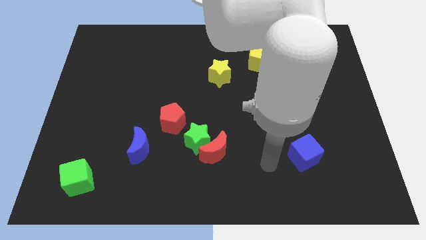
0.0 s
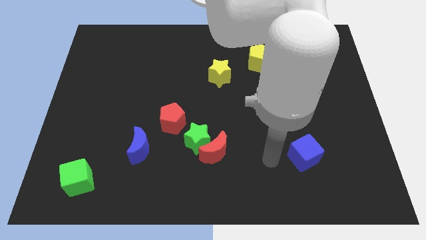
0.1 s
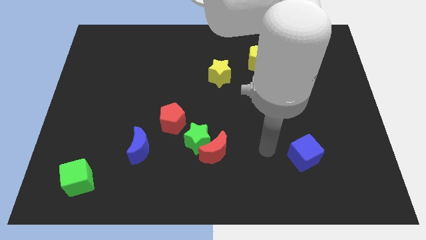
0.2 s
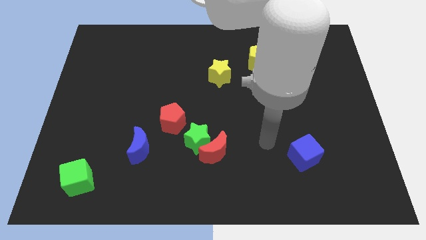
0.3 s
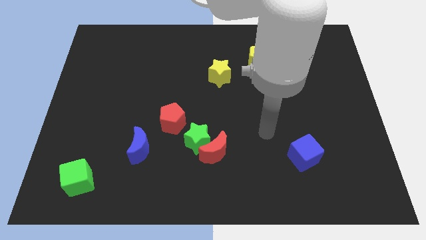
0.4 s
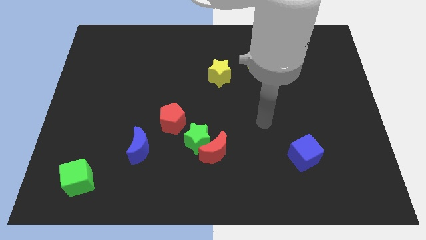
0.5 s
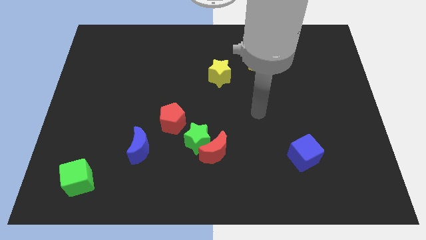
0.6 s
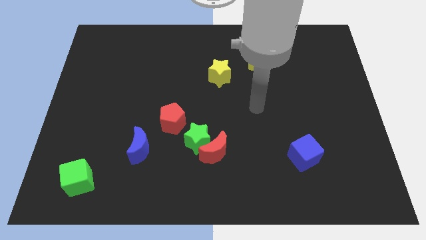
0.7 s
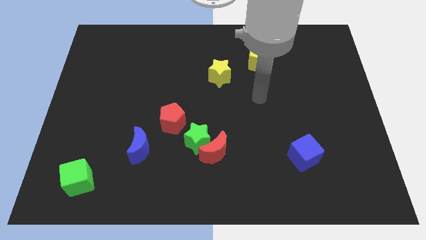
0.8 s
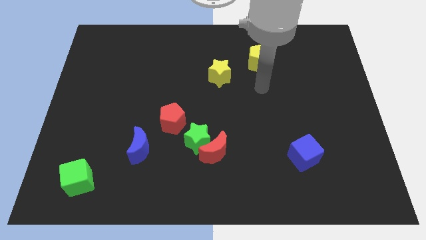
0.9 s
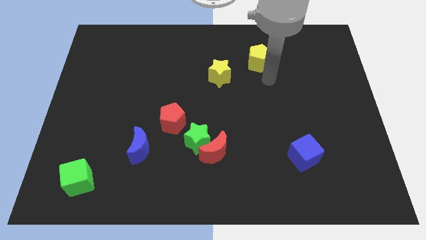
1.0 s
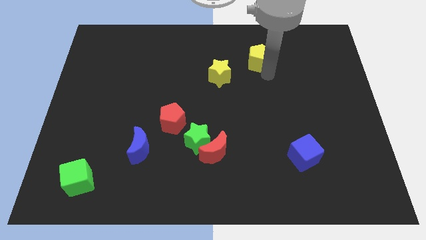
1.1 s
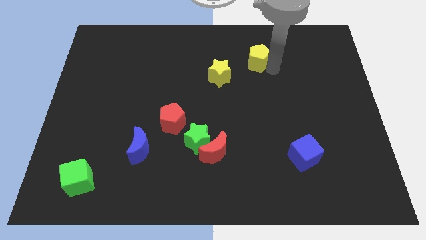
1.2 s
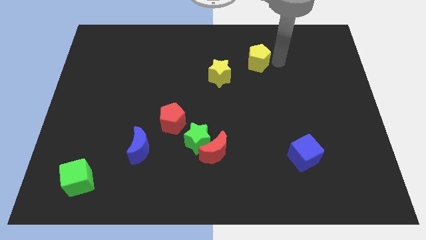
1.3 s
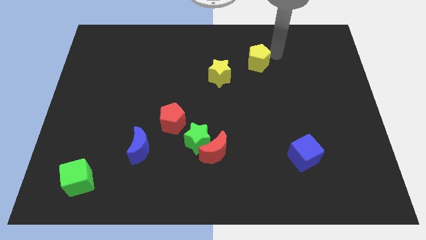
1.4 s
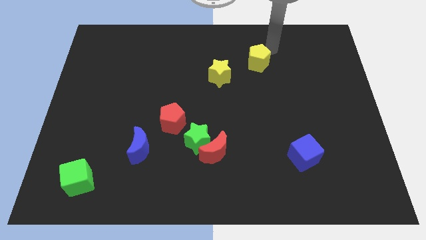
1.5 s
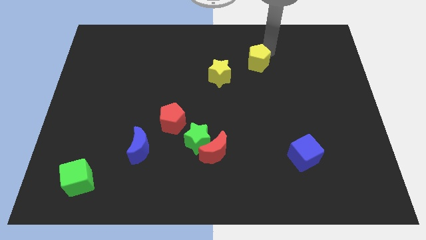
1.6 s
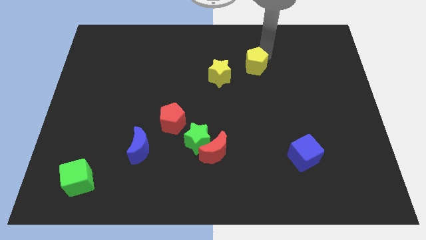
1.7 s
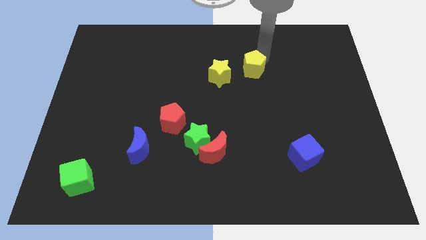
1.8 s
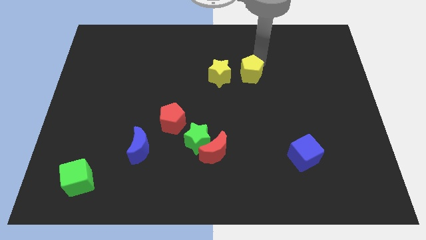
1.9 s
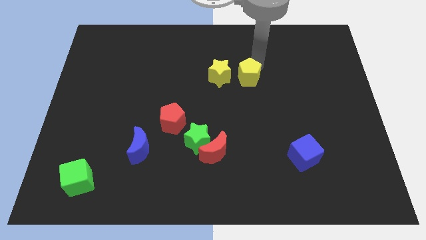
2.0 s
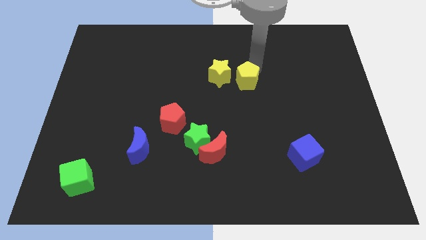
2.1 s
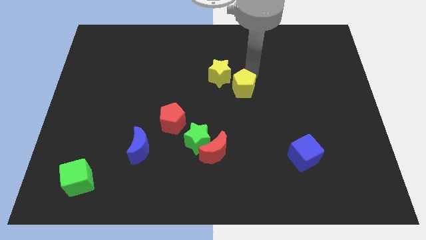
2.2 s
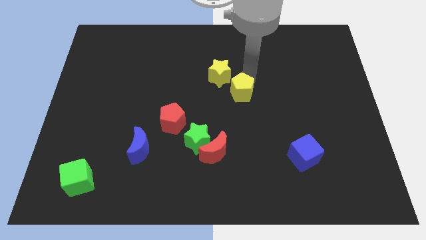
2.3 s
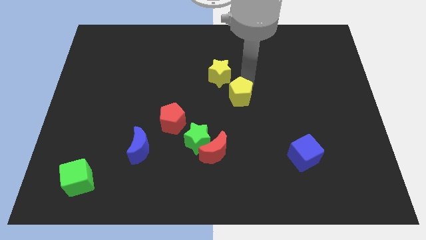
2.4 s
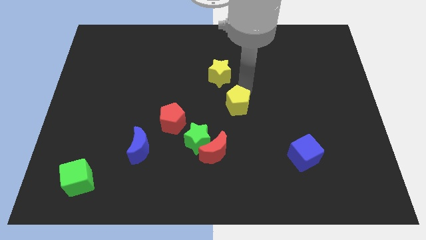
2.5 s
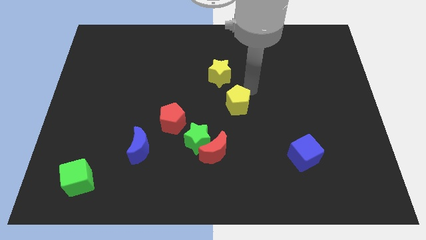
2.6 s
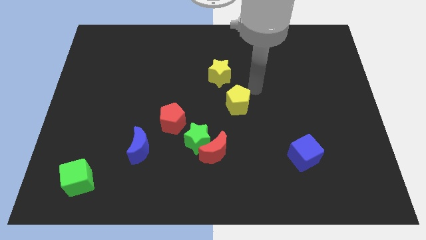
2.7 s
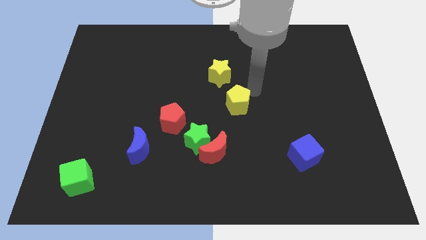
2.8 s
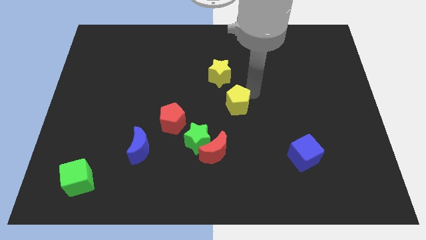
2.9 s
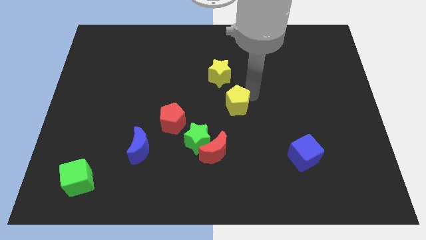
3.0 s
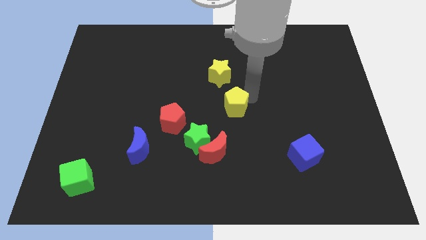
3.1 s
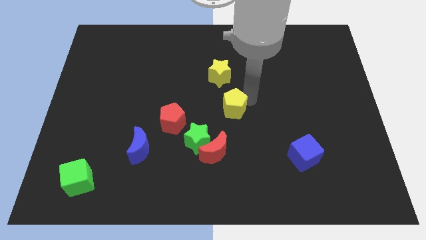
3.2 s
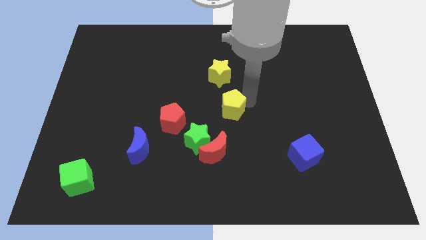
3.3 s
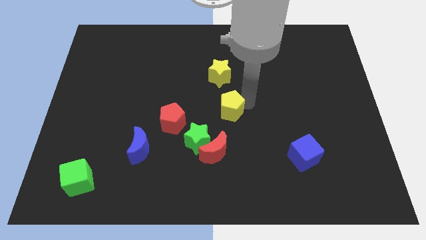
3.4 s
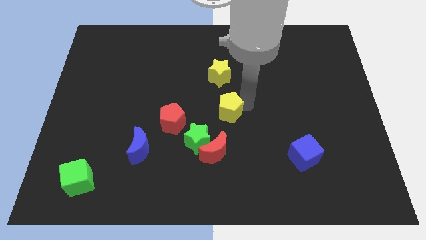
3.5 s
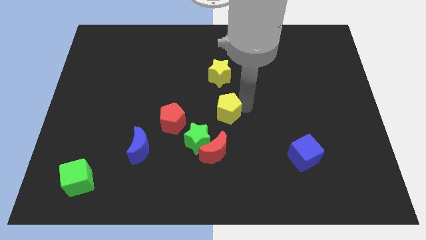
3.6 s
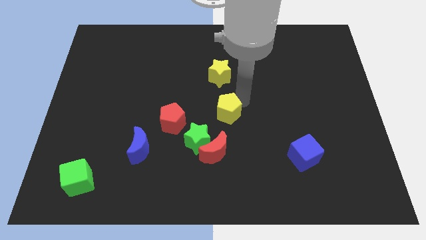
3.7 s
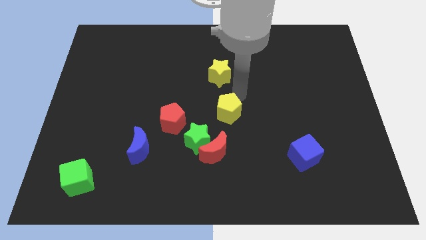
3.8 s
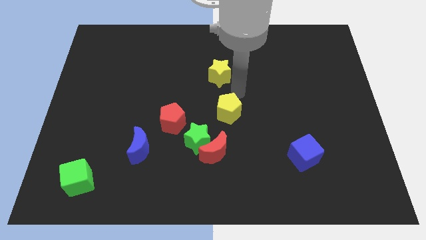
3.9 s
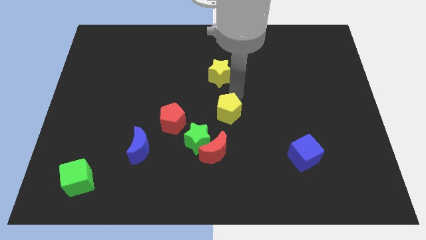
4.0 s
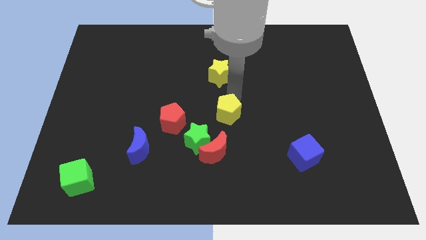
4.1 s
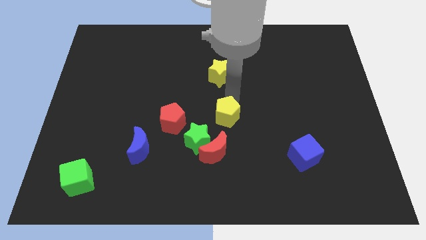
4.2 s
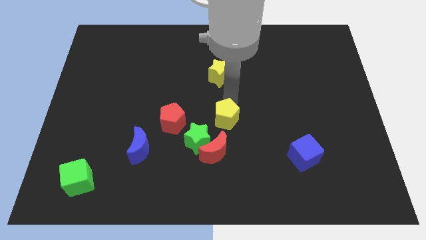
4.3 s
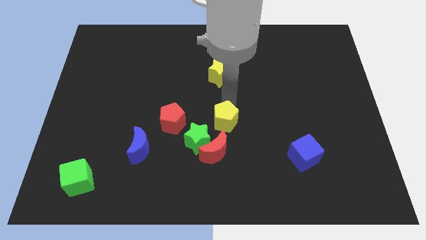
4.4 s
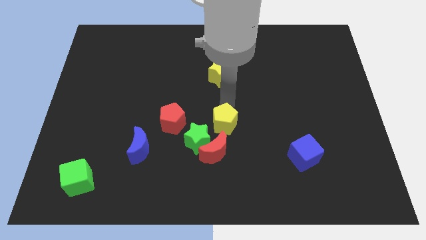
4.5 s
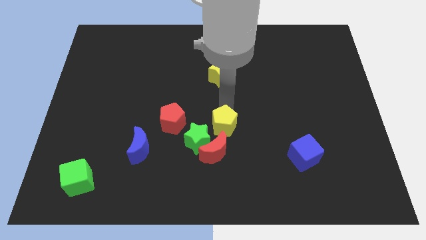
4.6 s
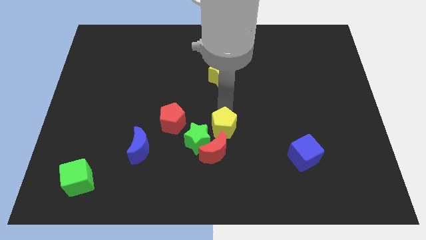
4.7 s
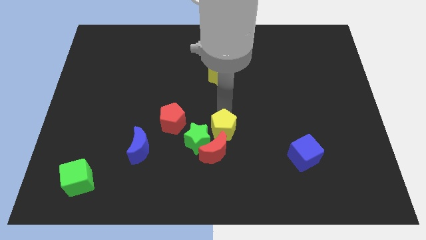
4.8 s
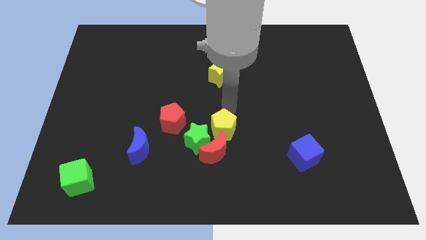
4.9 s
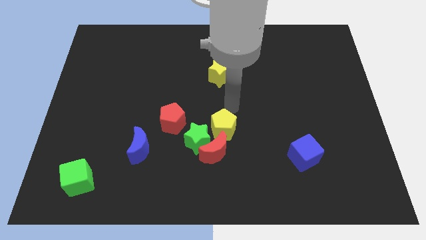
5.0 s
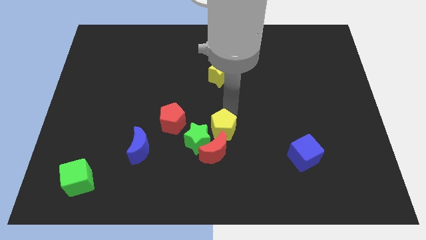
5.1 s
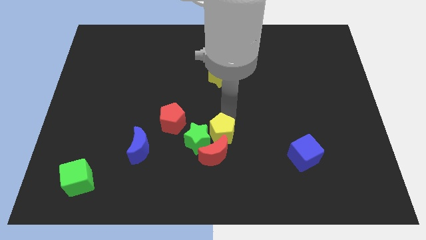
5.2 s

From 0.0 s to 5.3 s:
move the yellow pentagon to the red moon

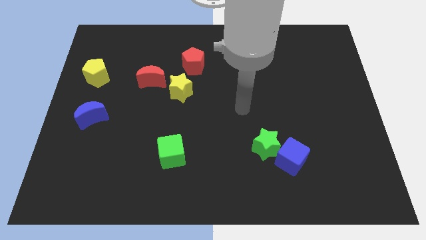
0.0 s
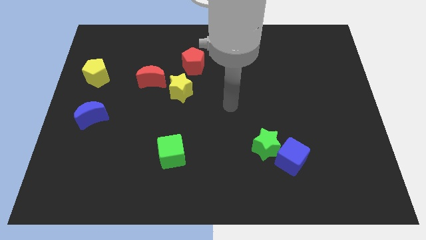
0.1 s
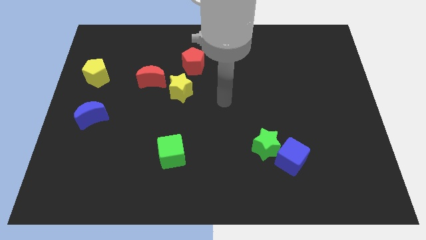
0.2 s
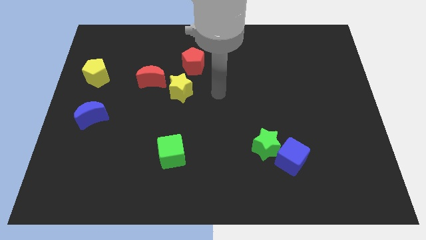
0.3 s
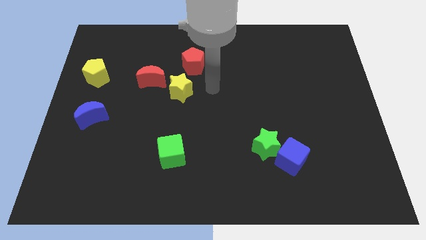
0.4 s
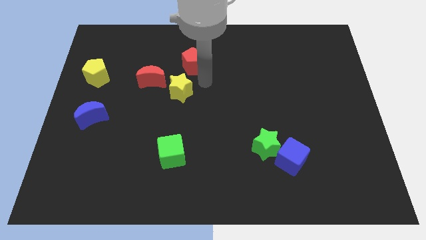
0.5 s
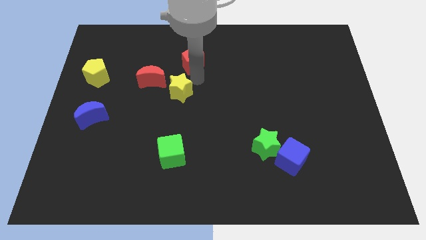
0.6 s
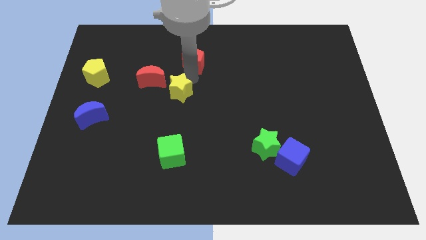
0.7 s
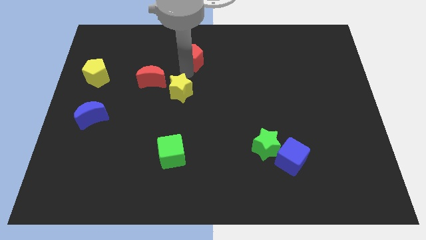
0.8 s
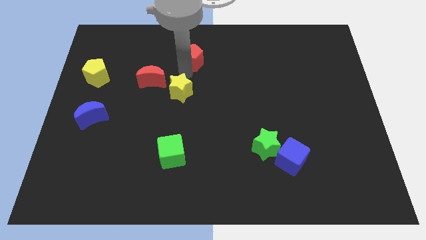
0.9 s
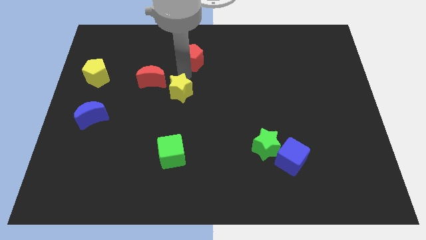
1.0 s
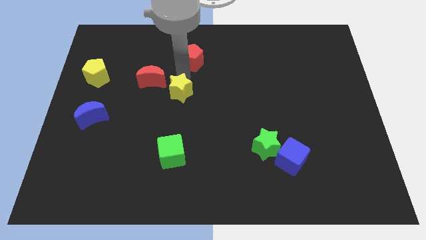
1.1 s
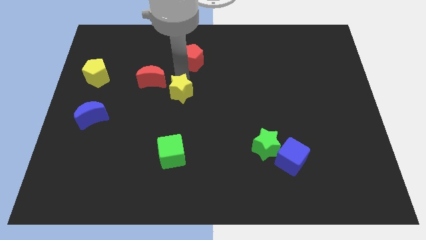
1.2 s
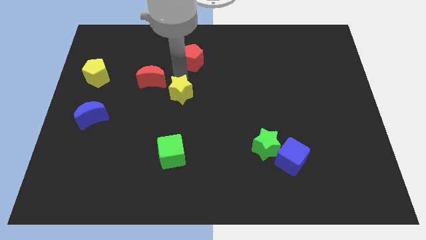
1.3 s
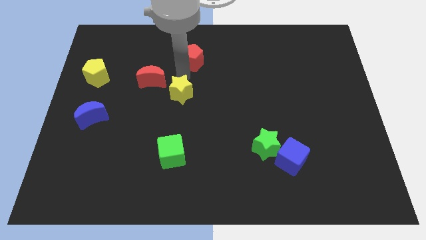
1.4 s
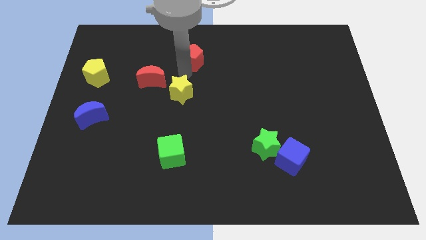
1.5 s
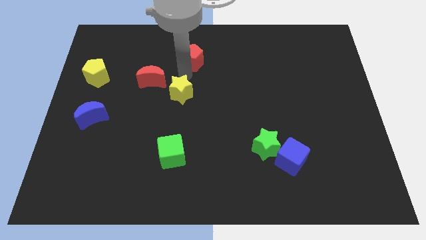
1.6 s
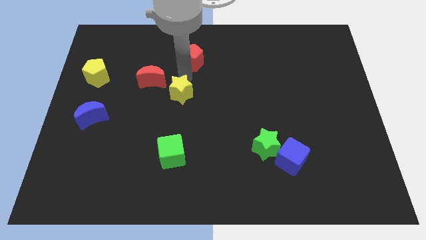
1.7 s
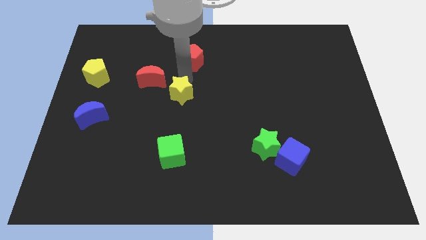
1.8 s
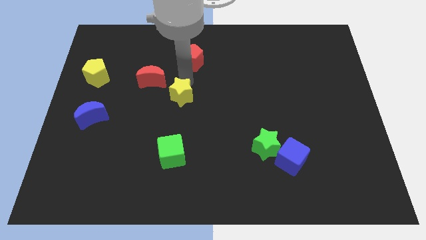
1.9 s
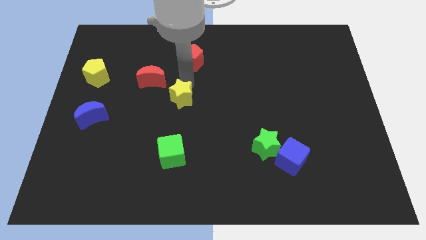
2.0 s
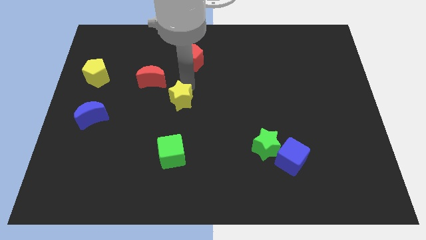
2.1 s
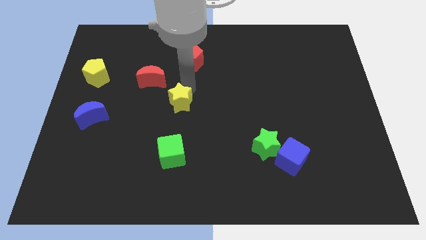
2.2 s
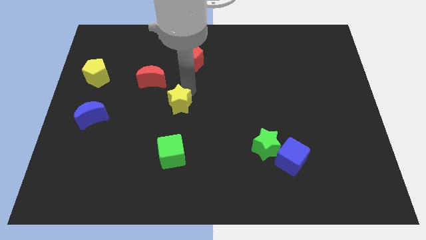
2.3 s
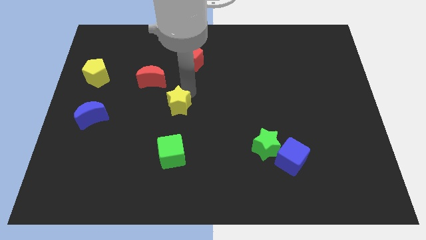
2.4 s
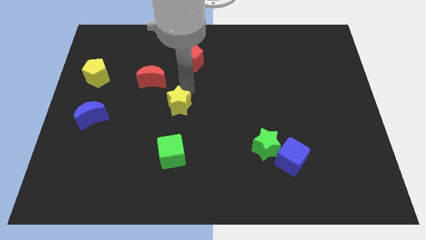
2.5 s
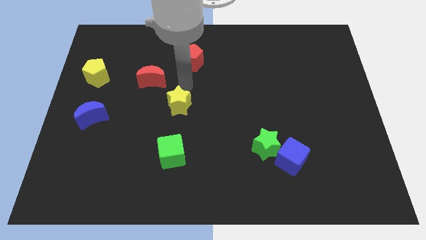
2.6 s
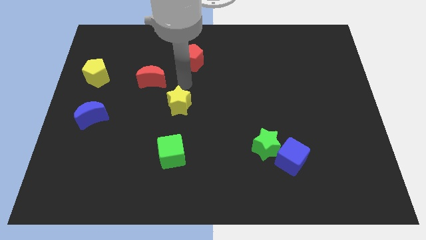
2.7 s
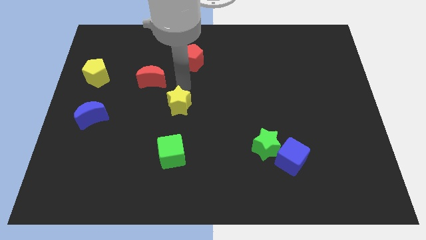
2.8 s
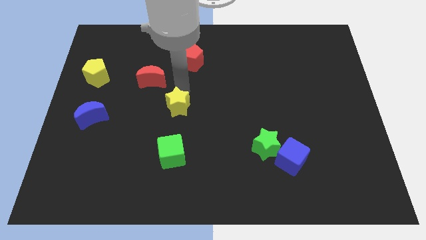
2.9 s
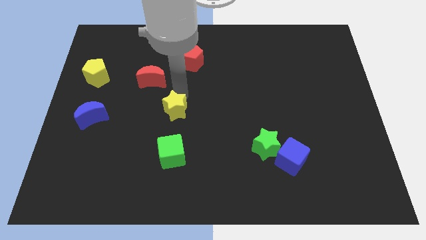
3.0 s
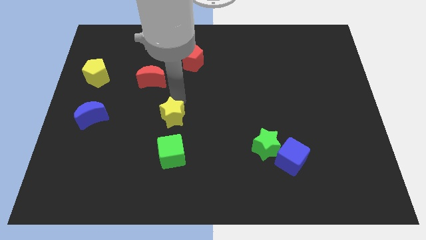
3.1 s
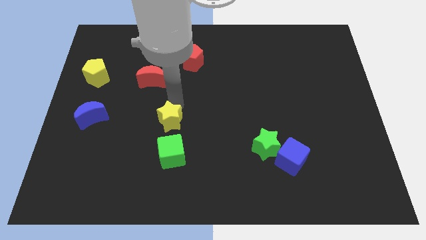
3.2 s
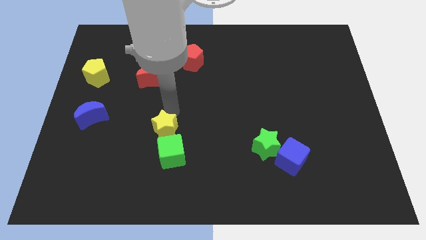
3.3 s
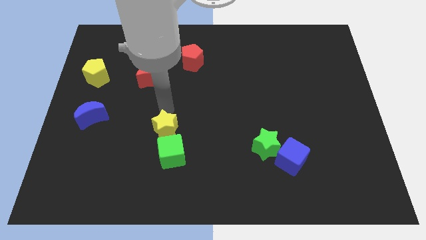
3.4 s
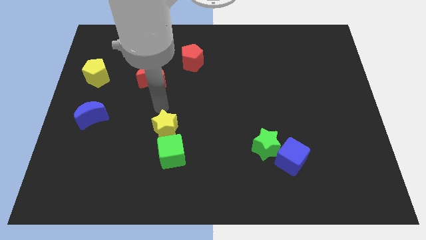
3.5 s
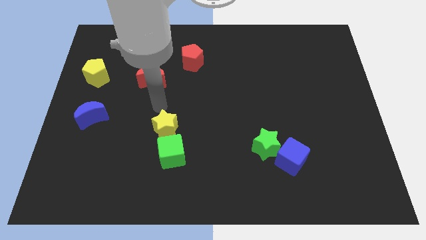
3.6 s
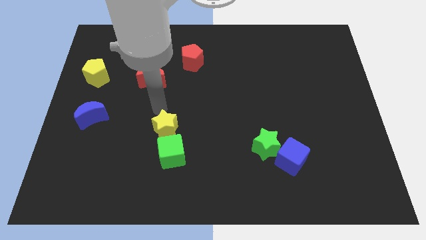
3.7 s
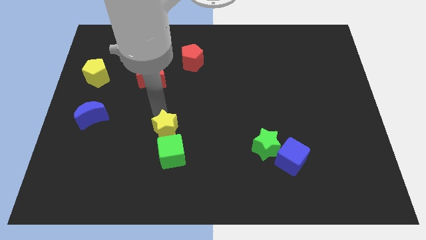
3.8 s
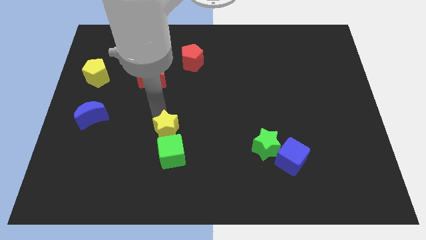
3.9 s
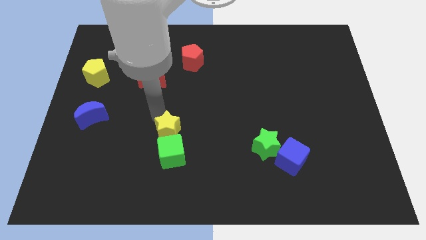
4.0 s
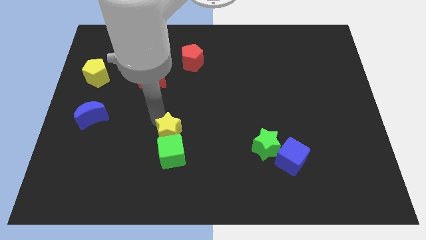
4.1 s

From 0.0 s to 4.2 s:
slide the yellow star towards the green cube
